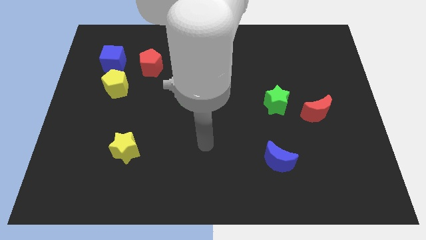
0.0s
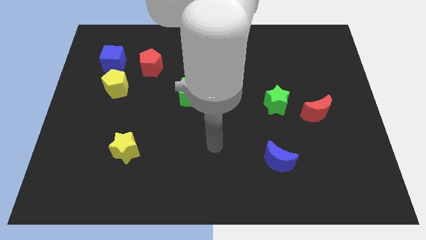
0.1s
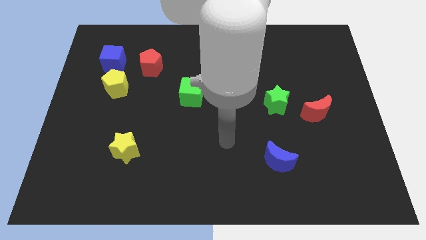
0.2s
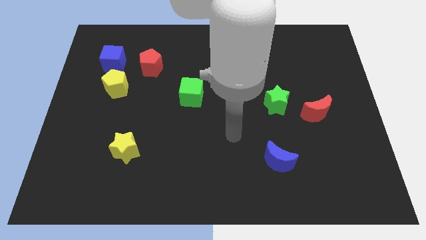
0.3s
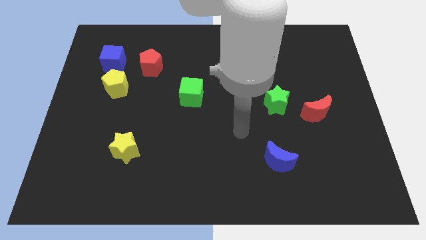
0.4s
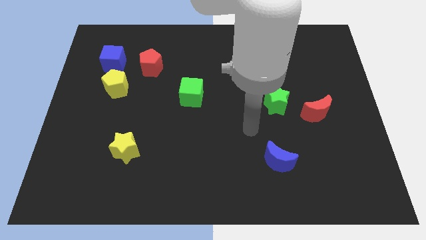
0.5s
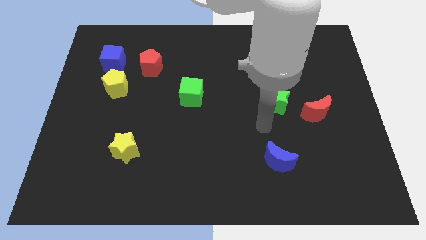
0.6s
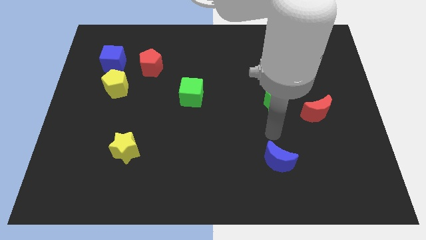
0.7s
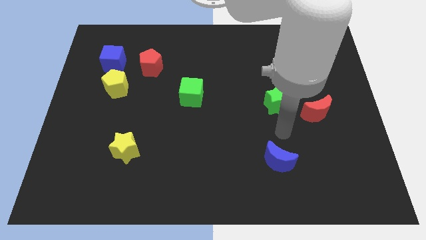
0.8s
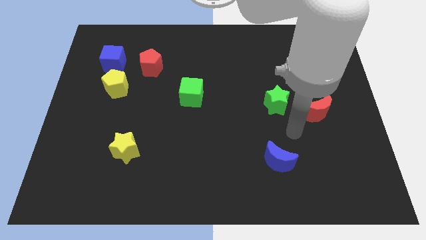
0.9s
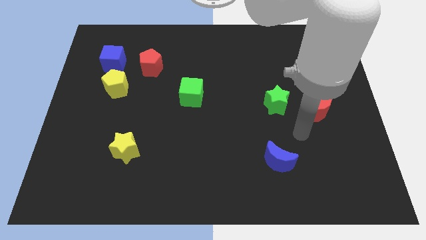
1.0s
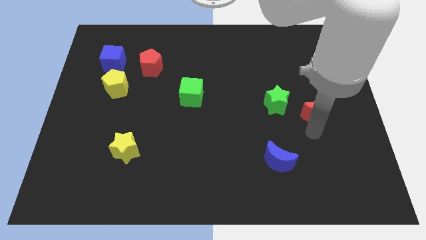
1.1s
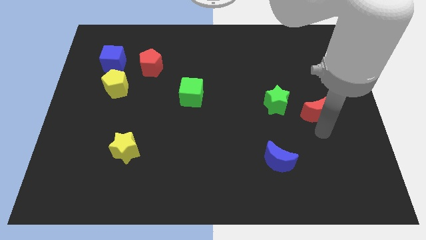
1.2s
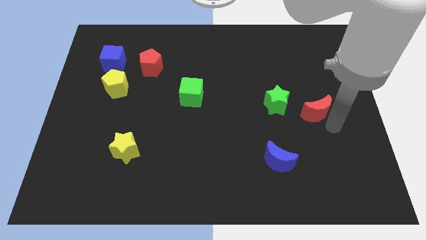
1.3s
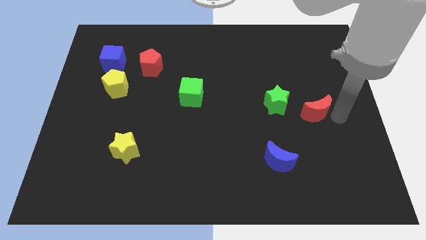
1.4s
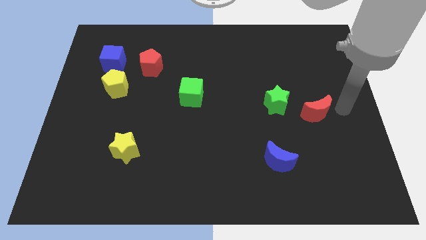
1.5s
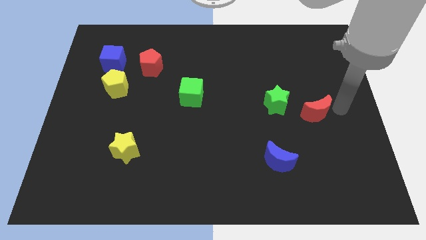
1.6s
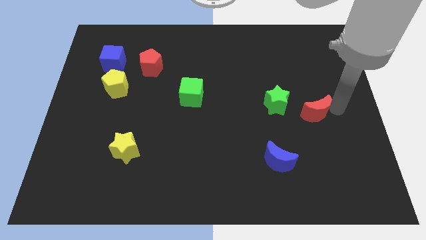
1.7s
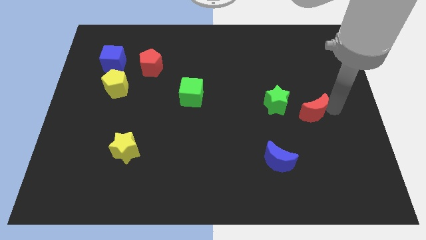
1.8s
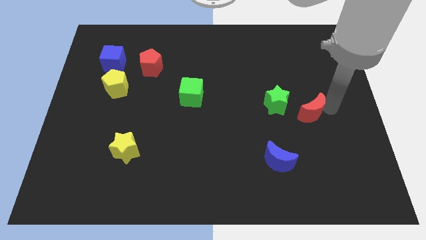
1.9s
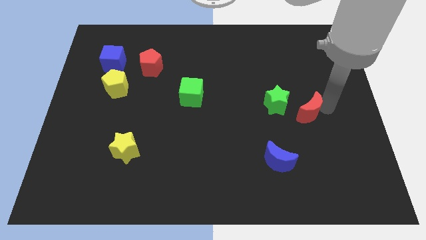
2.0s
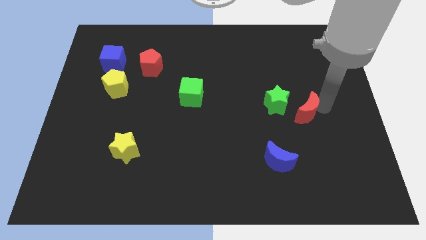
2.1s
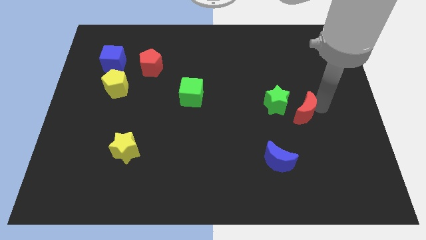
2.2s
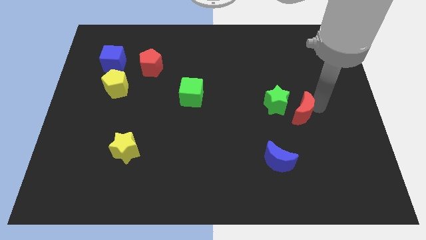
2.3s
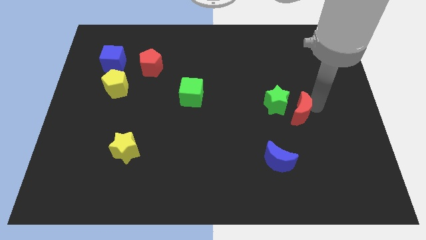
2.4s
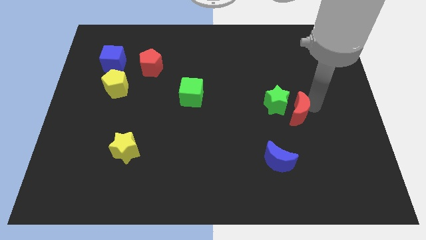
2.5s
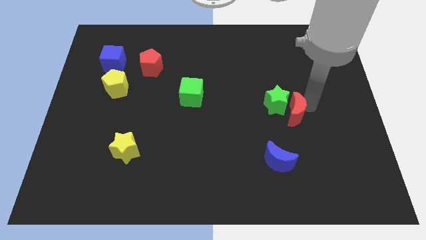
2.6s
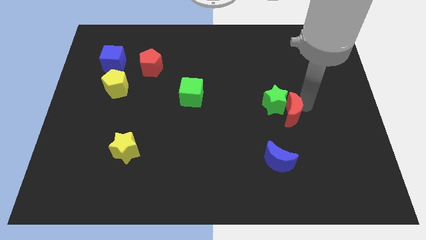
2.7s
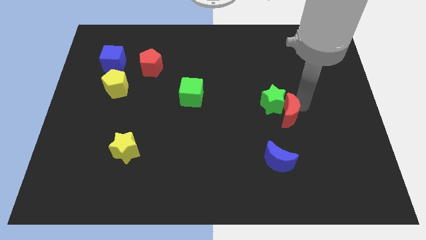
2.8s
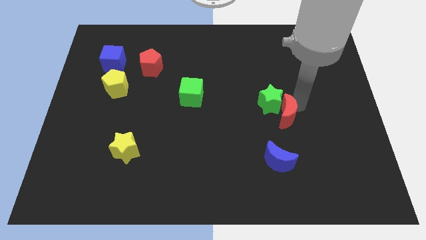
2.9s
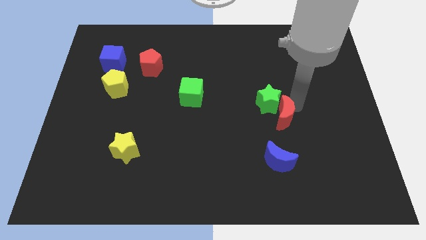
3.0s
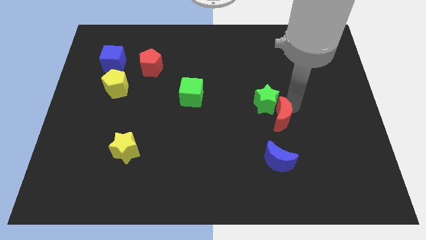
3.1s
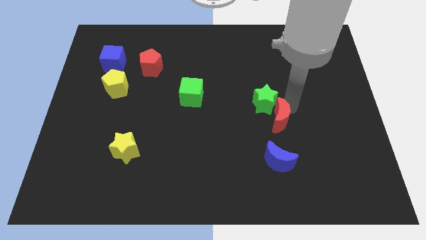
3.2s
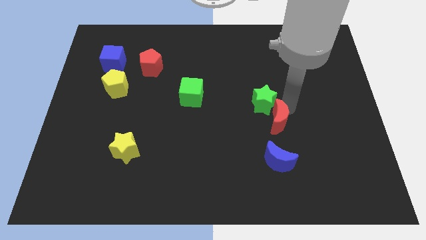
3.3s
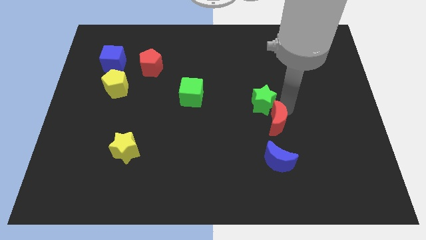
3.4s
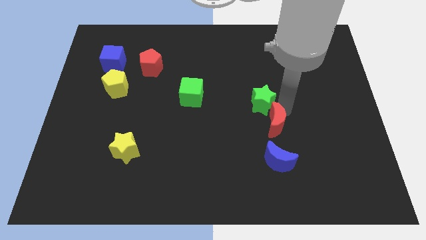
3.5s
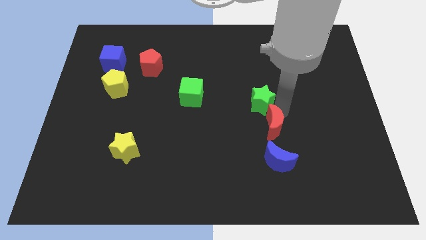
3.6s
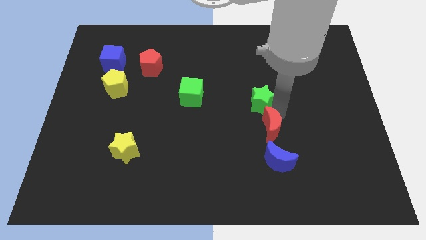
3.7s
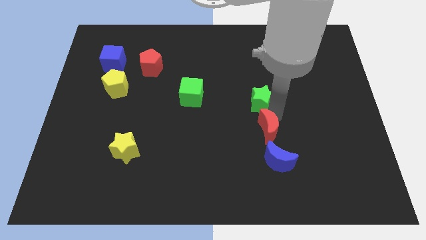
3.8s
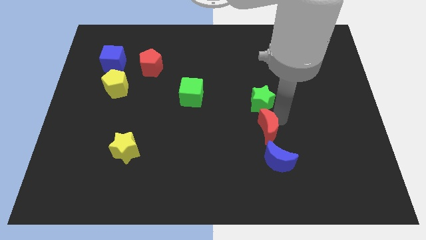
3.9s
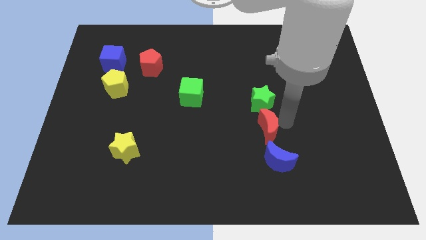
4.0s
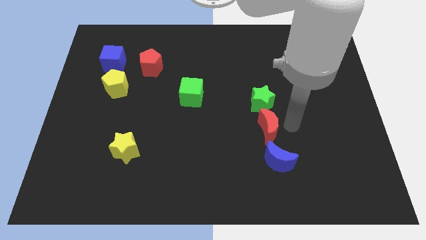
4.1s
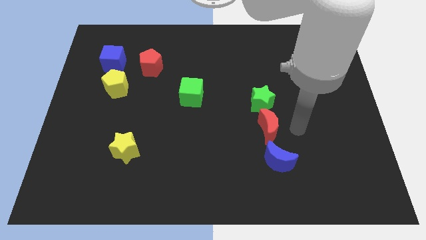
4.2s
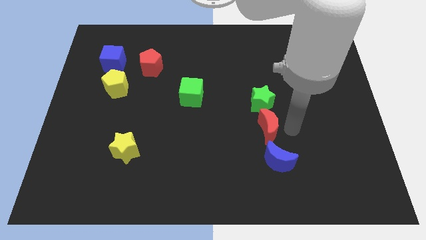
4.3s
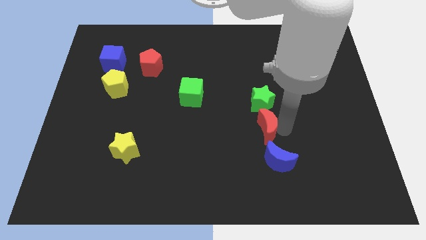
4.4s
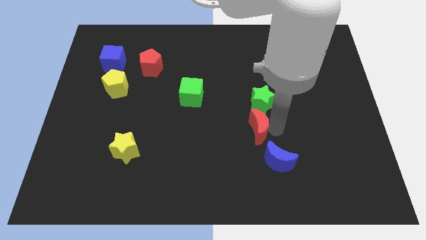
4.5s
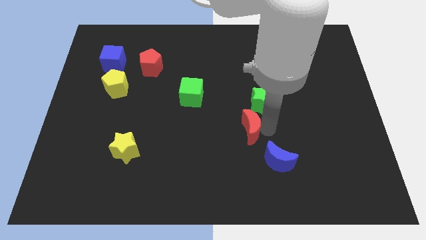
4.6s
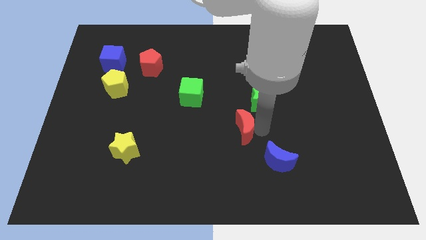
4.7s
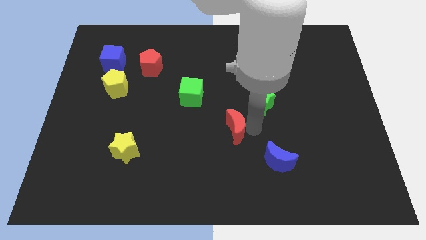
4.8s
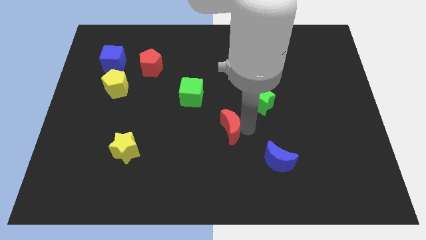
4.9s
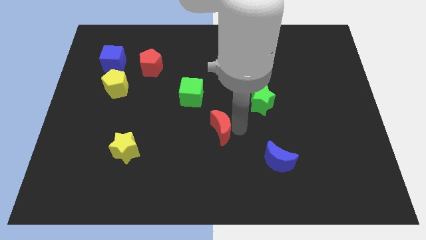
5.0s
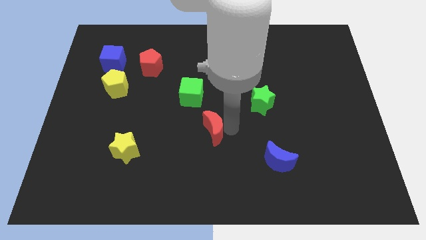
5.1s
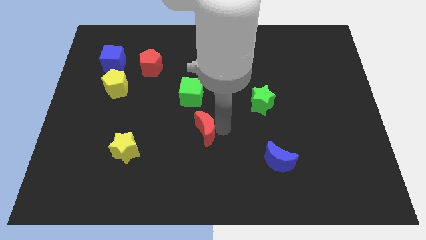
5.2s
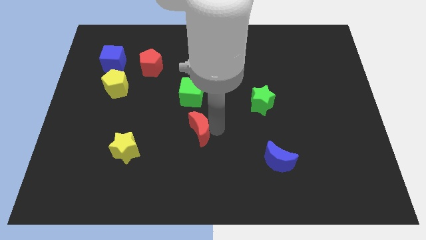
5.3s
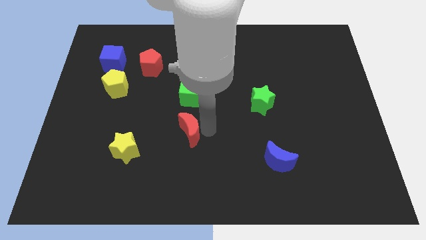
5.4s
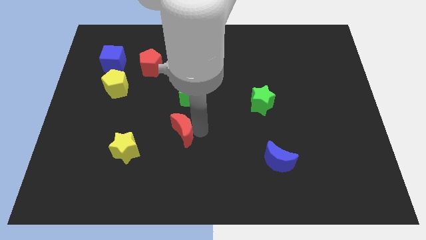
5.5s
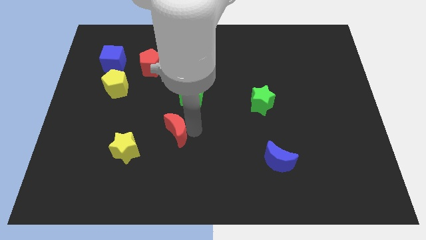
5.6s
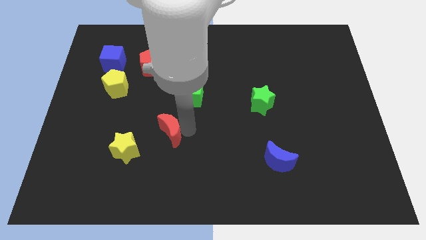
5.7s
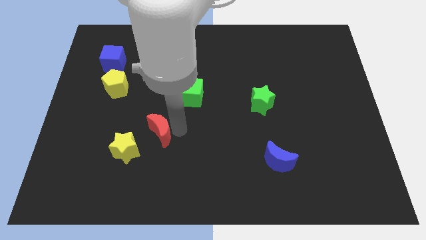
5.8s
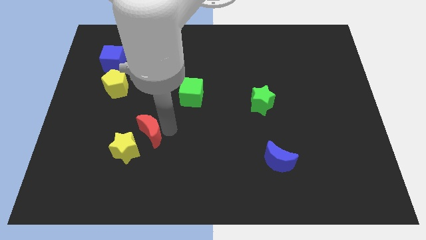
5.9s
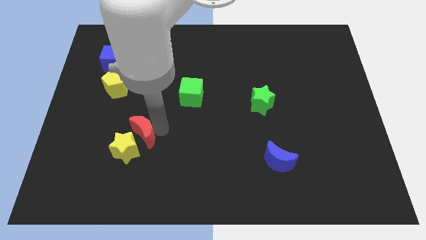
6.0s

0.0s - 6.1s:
move the red moon to the yellow star
